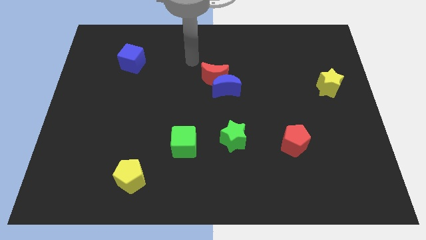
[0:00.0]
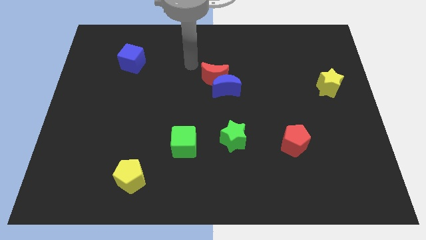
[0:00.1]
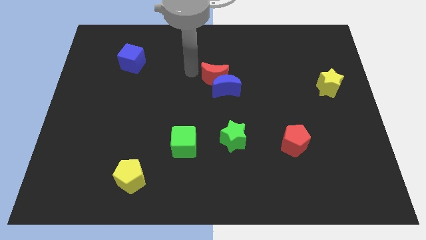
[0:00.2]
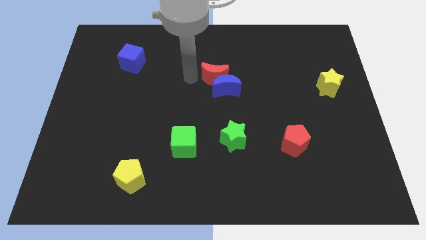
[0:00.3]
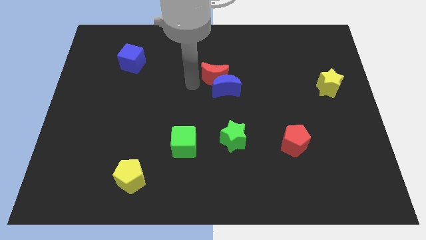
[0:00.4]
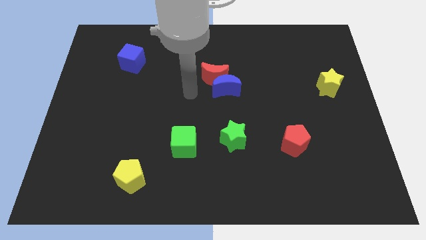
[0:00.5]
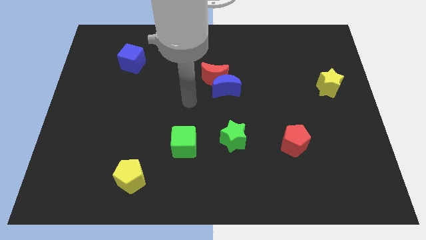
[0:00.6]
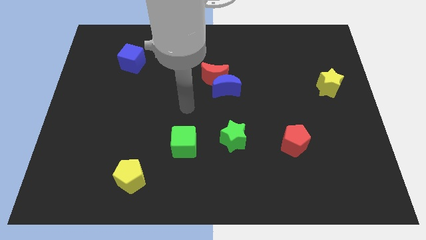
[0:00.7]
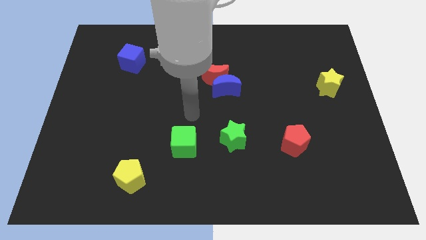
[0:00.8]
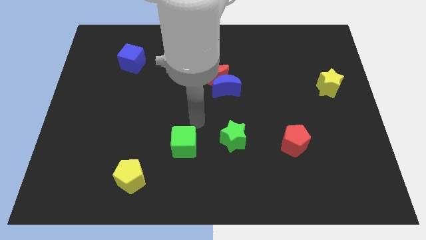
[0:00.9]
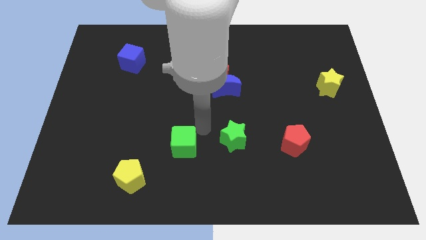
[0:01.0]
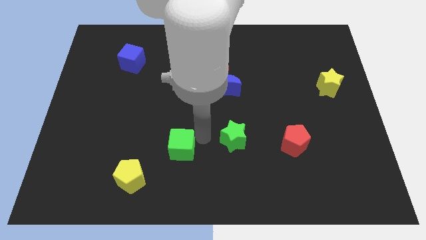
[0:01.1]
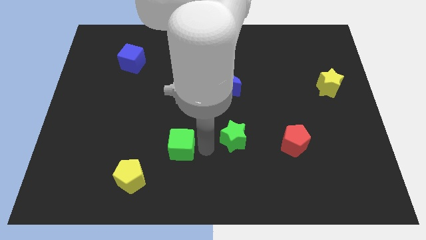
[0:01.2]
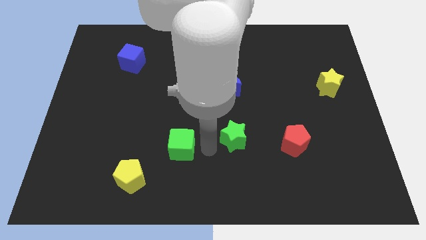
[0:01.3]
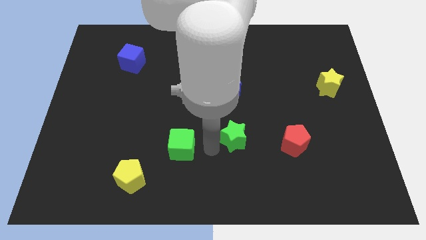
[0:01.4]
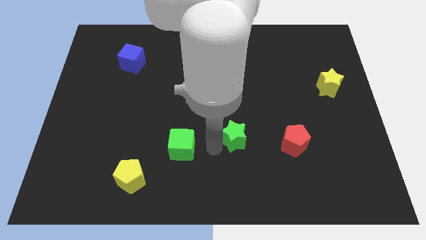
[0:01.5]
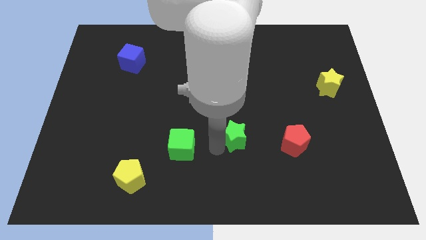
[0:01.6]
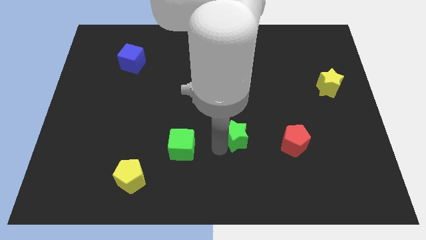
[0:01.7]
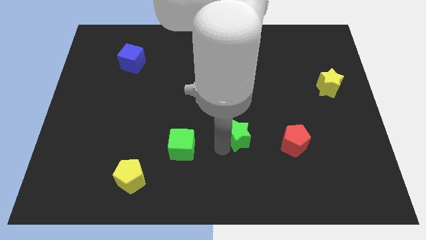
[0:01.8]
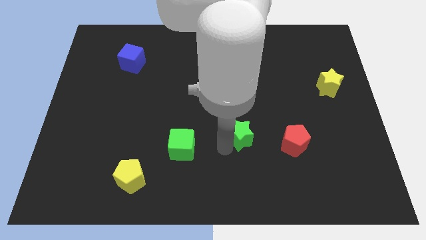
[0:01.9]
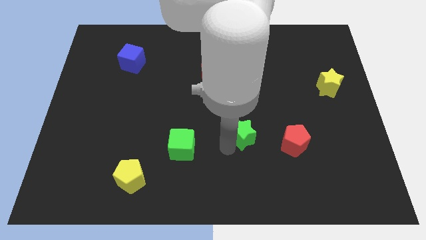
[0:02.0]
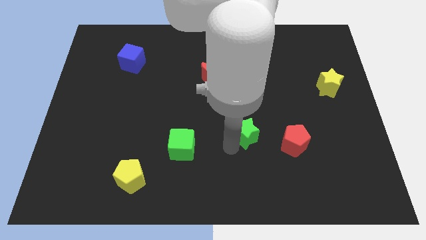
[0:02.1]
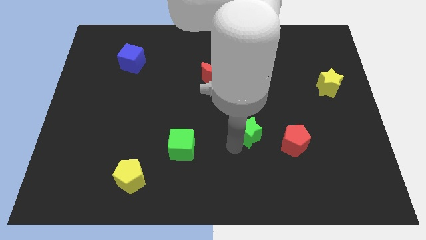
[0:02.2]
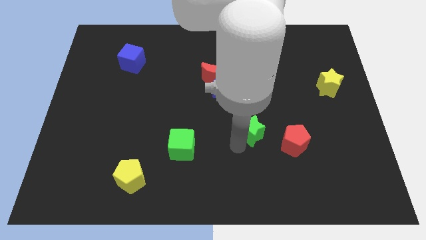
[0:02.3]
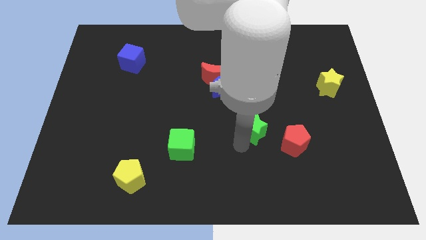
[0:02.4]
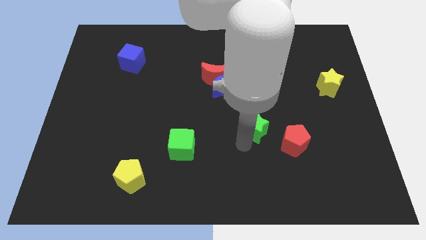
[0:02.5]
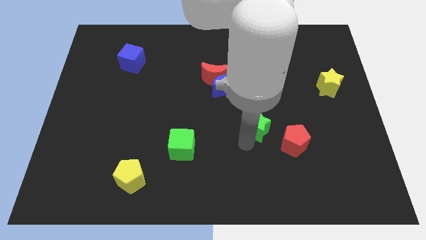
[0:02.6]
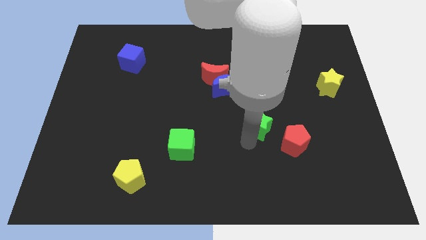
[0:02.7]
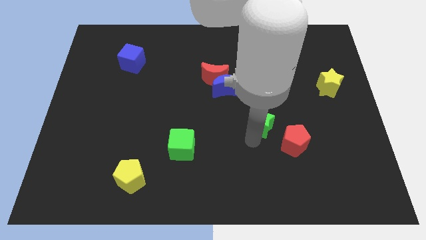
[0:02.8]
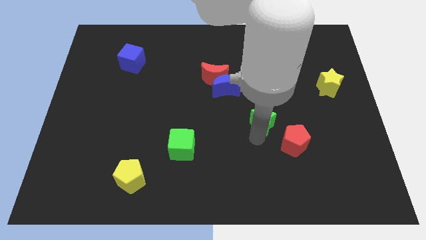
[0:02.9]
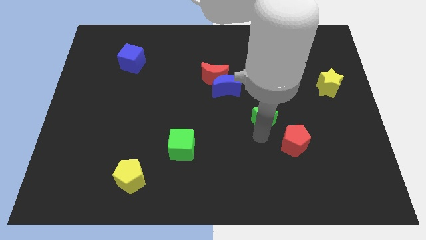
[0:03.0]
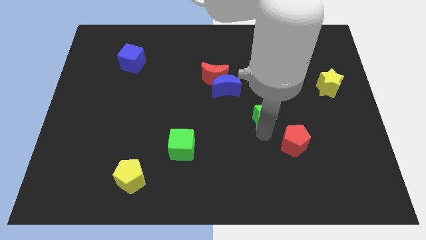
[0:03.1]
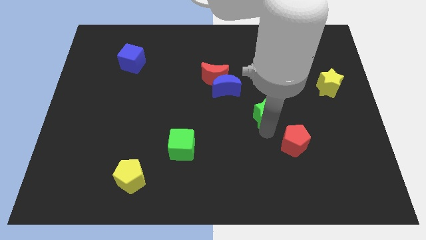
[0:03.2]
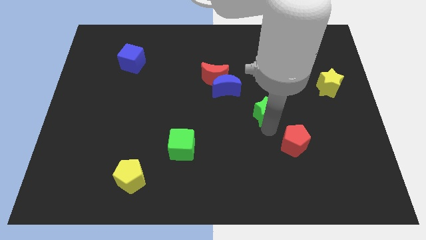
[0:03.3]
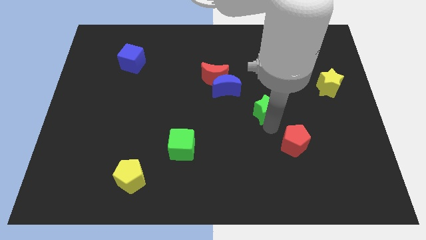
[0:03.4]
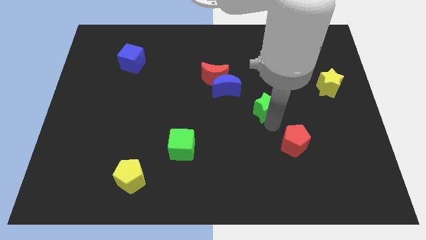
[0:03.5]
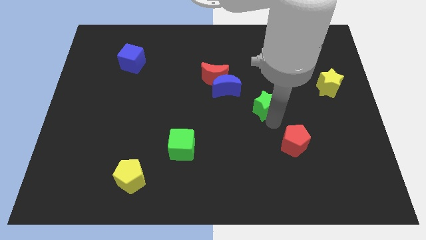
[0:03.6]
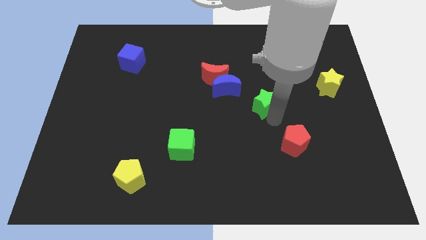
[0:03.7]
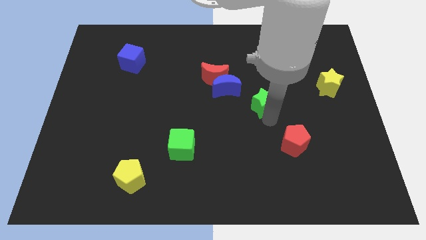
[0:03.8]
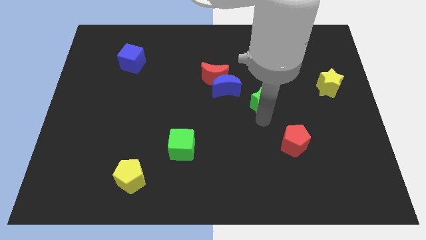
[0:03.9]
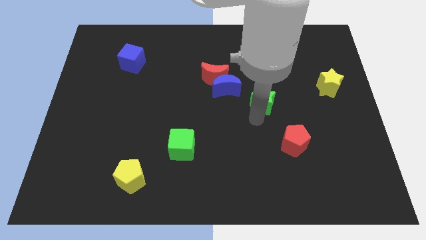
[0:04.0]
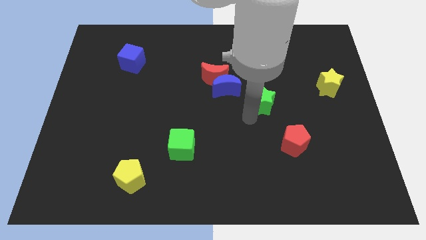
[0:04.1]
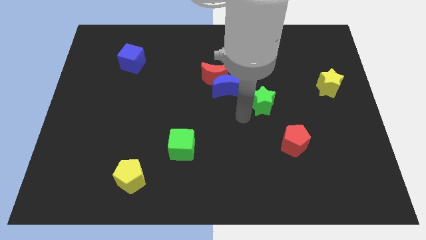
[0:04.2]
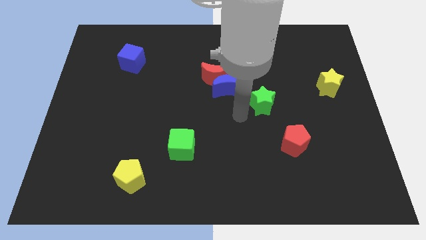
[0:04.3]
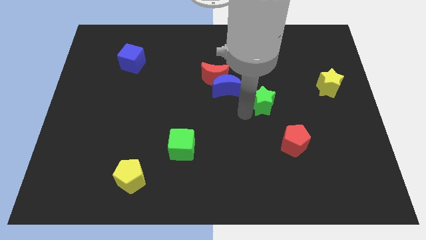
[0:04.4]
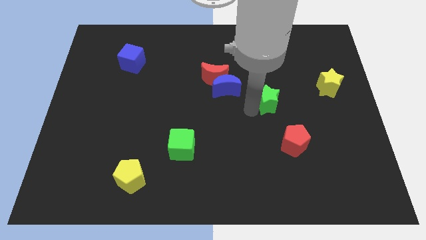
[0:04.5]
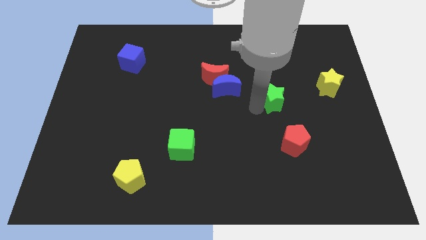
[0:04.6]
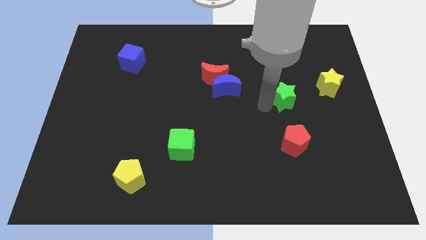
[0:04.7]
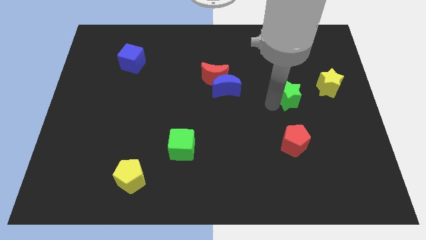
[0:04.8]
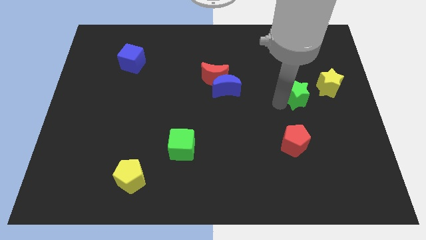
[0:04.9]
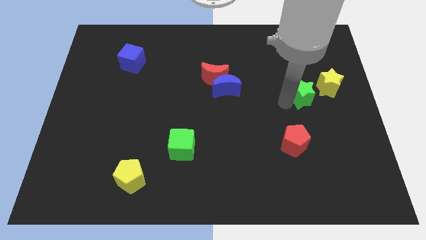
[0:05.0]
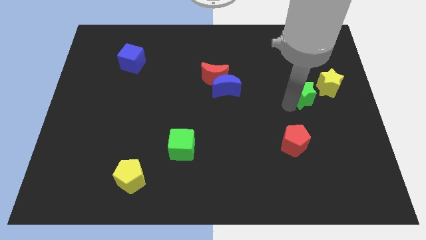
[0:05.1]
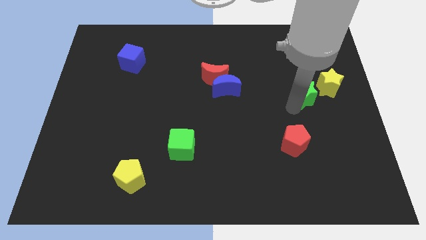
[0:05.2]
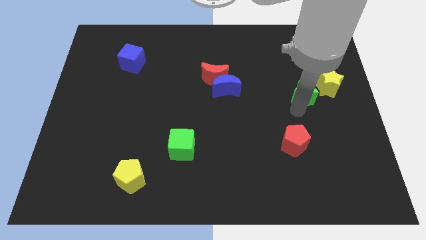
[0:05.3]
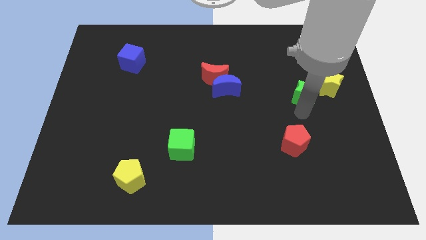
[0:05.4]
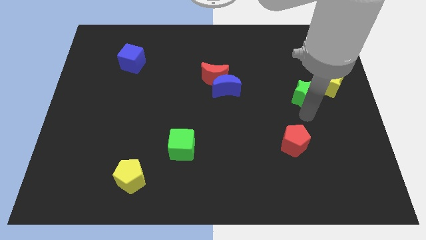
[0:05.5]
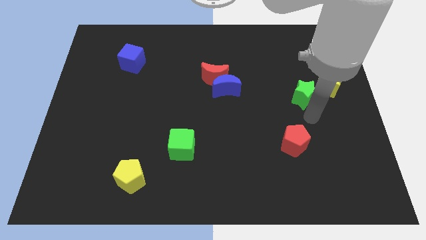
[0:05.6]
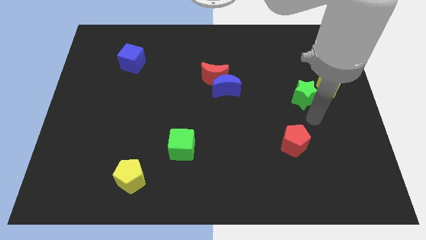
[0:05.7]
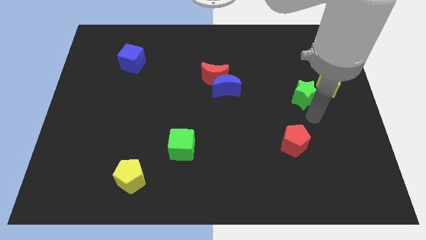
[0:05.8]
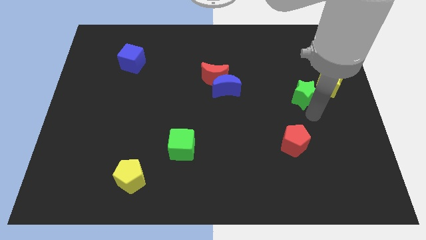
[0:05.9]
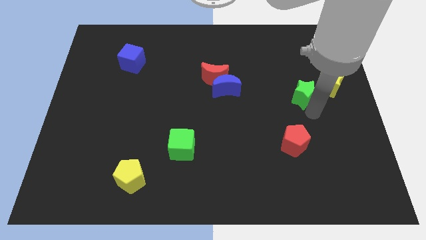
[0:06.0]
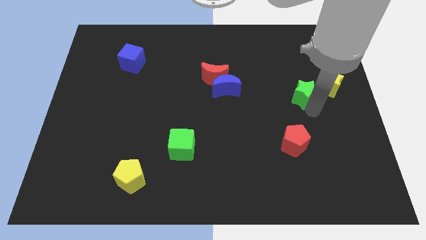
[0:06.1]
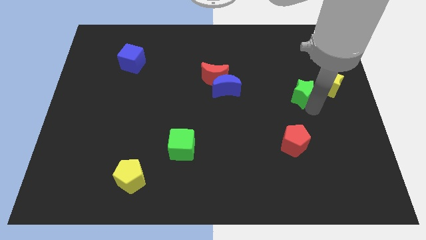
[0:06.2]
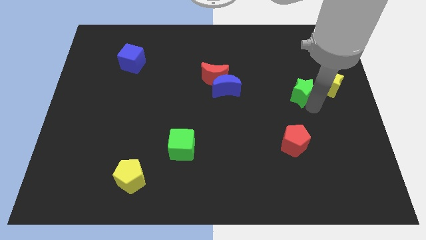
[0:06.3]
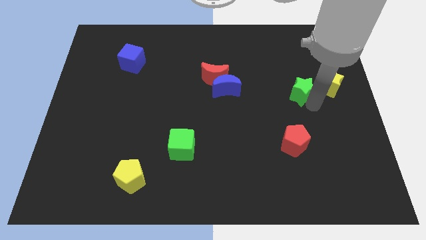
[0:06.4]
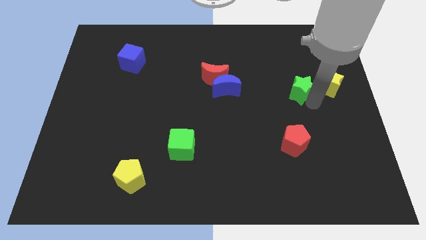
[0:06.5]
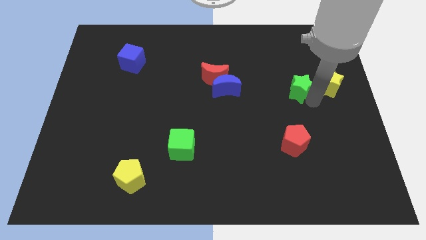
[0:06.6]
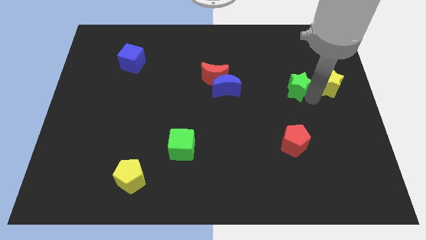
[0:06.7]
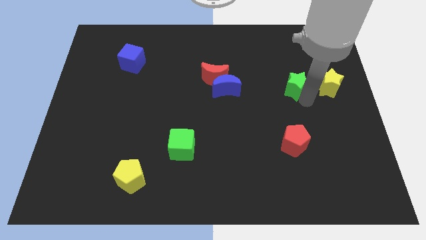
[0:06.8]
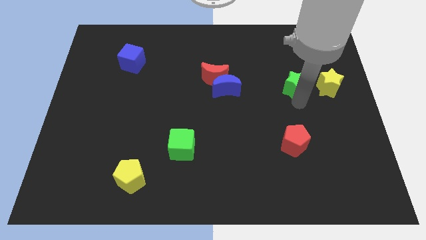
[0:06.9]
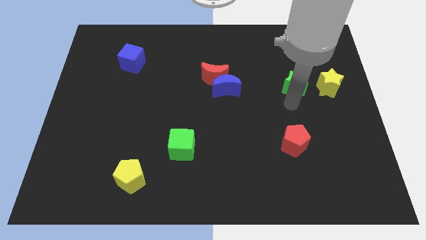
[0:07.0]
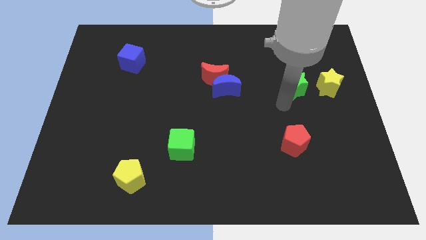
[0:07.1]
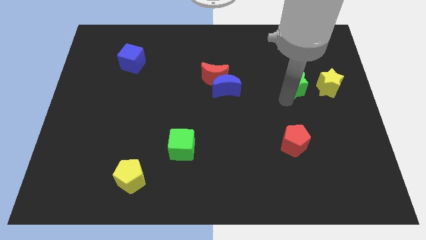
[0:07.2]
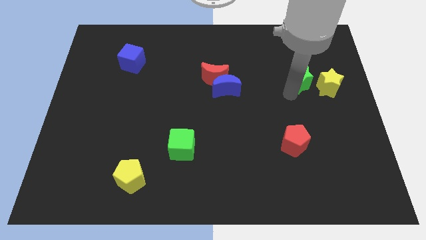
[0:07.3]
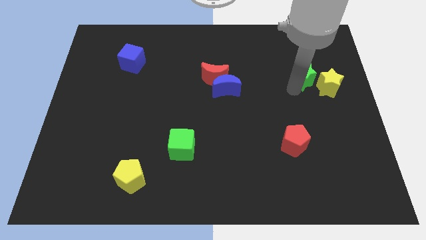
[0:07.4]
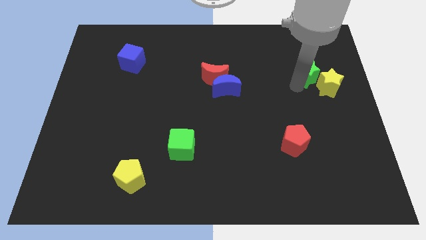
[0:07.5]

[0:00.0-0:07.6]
slide the green star above the yellow star
